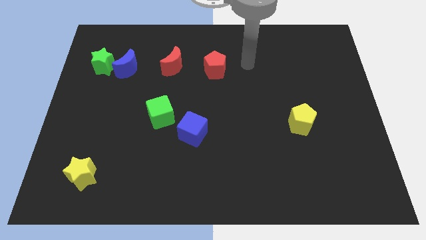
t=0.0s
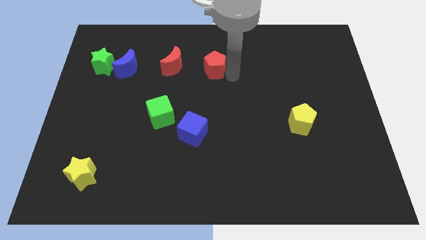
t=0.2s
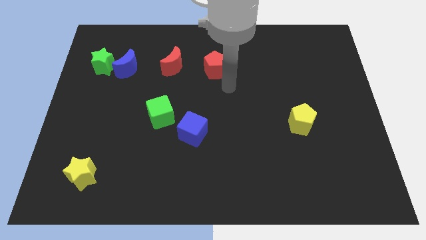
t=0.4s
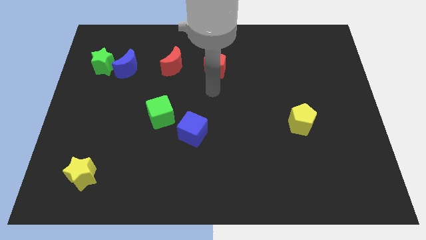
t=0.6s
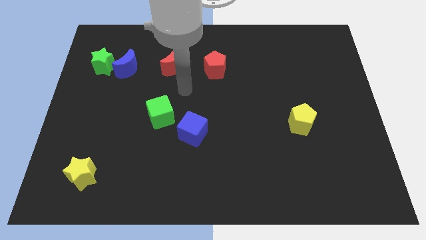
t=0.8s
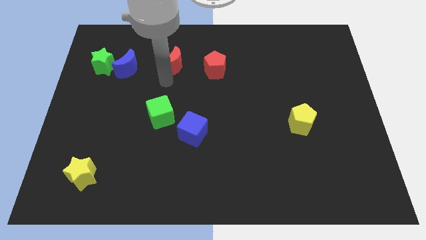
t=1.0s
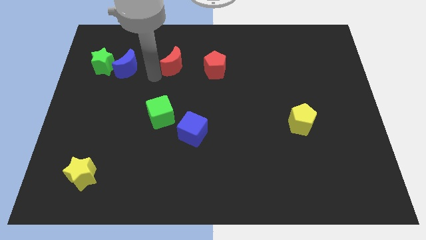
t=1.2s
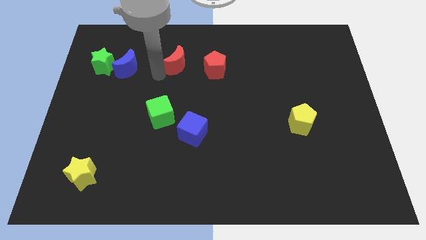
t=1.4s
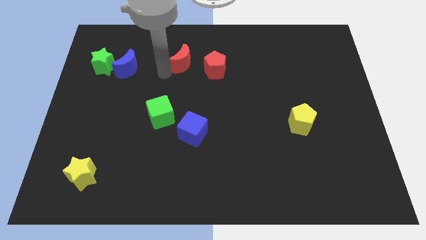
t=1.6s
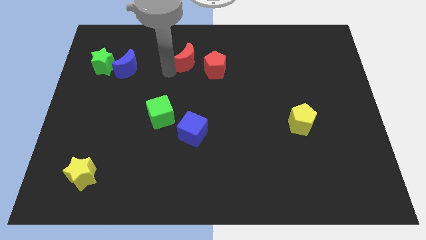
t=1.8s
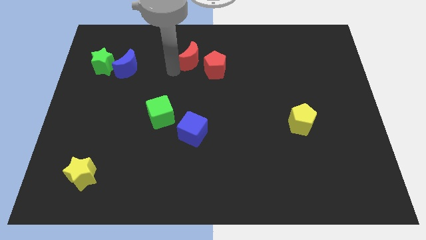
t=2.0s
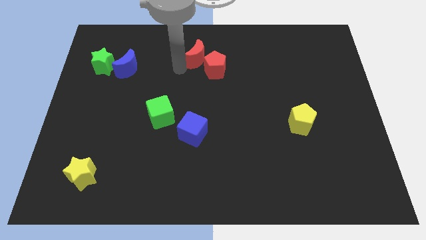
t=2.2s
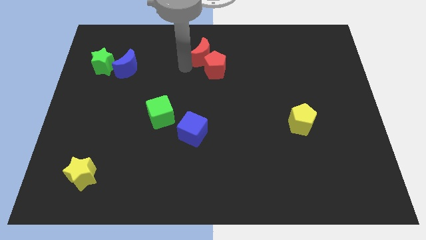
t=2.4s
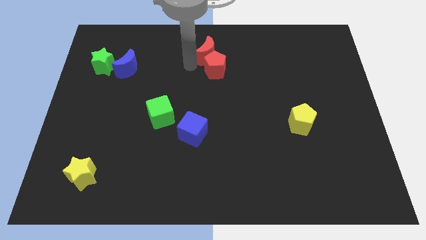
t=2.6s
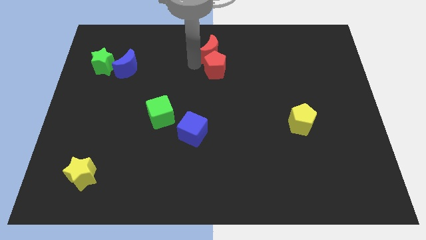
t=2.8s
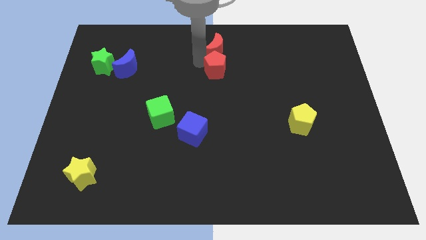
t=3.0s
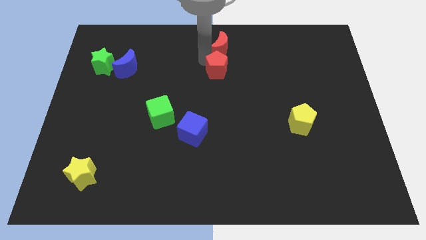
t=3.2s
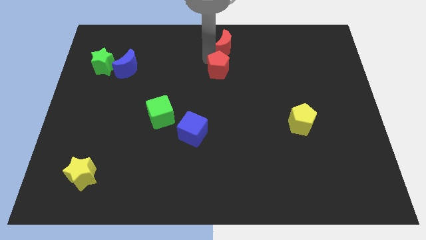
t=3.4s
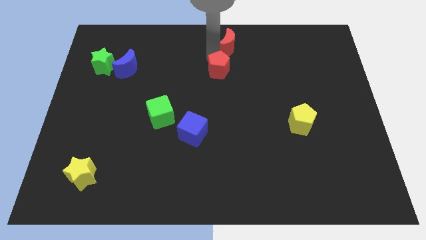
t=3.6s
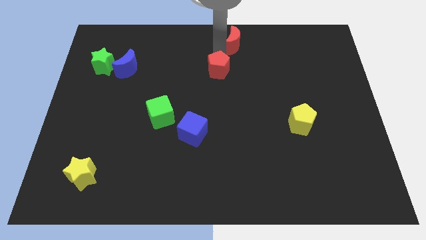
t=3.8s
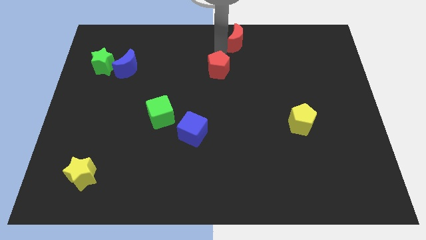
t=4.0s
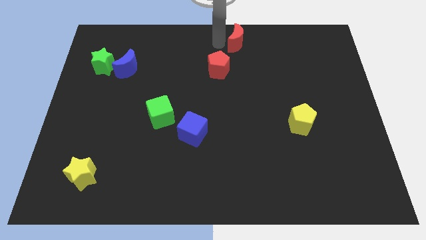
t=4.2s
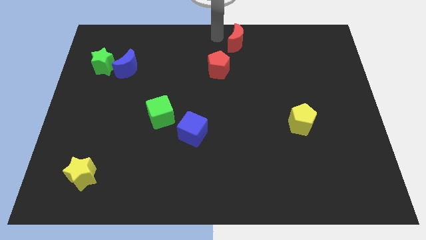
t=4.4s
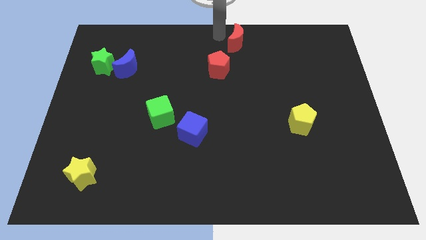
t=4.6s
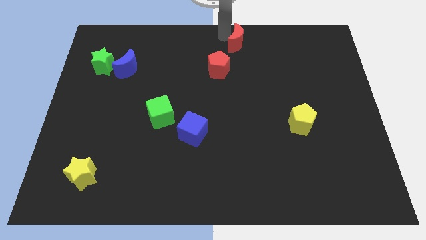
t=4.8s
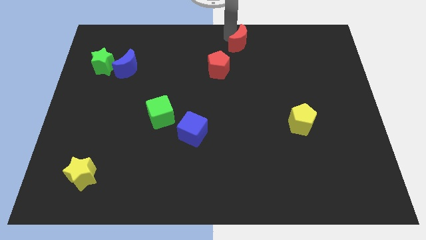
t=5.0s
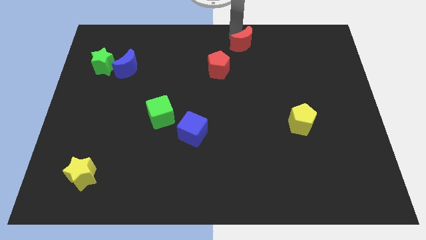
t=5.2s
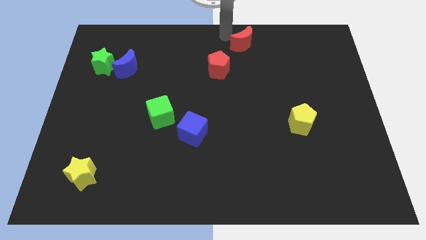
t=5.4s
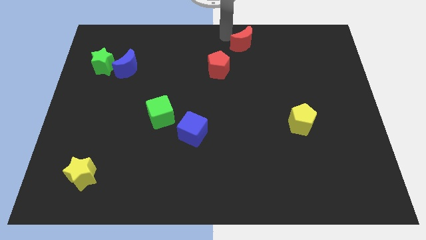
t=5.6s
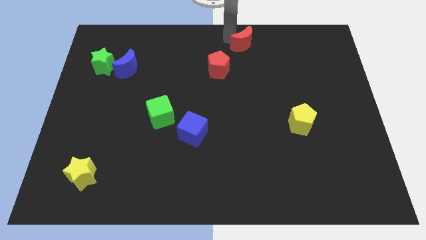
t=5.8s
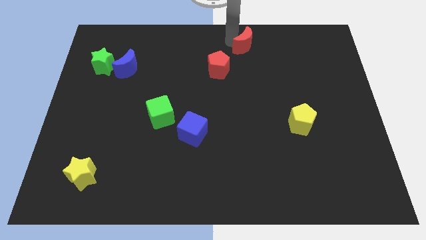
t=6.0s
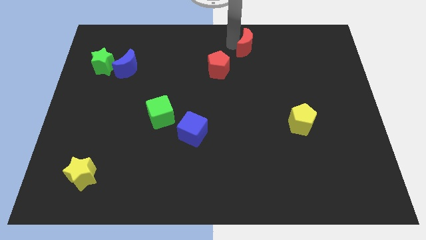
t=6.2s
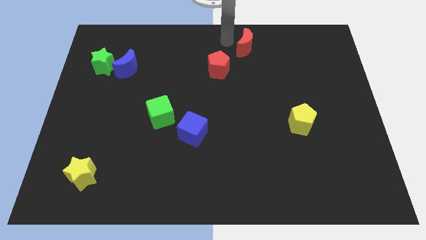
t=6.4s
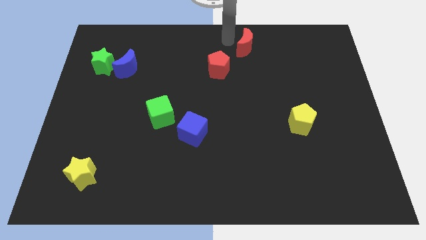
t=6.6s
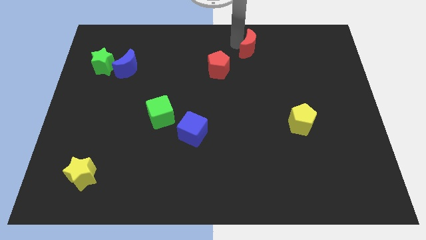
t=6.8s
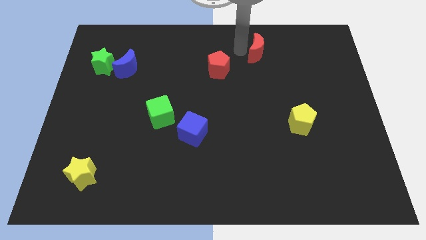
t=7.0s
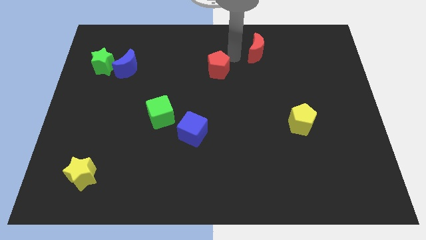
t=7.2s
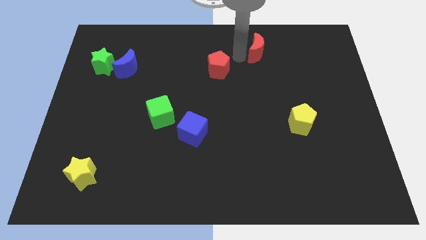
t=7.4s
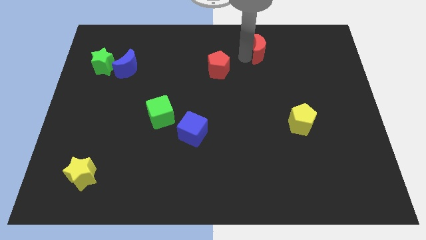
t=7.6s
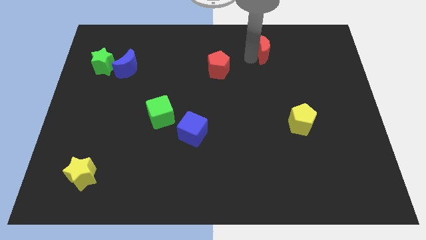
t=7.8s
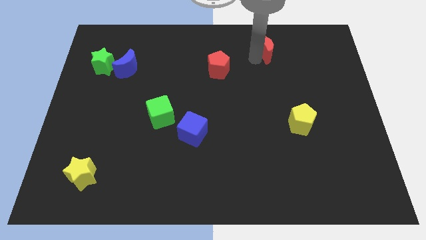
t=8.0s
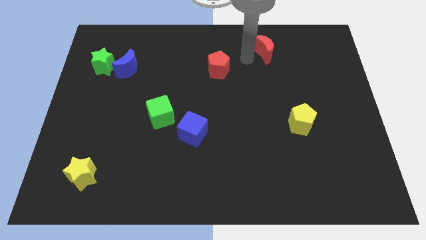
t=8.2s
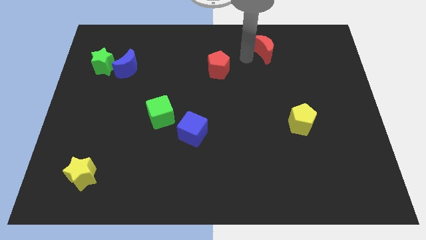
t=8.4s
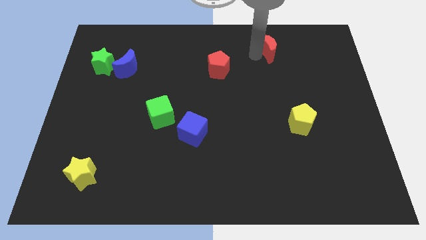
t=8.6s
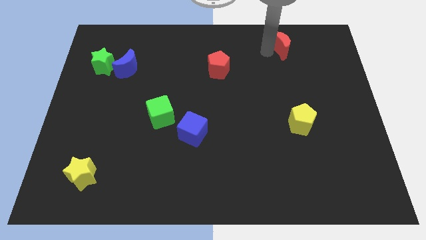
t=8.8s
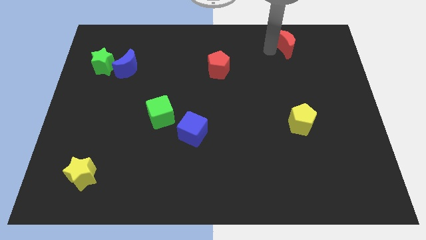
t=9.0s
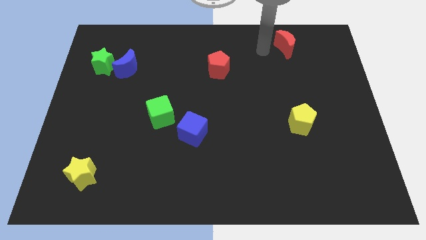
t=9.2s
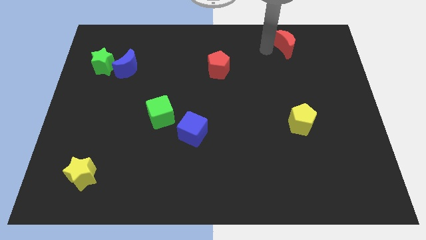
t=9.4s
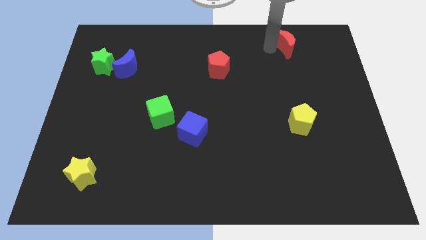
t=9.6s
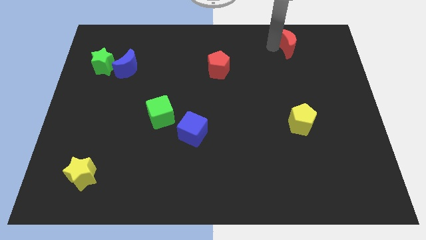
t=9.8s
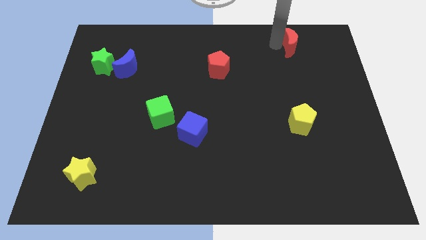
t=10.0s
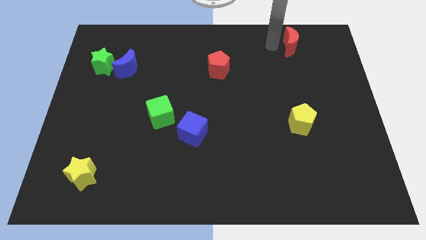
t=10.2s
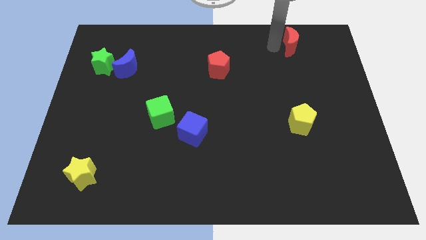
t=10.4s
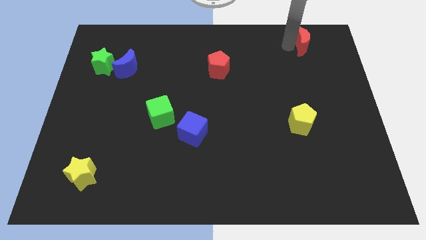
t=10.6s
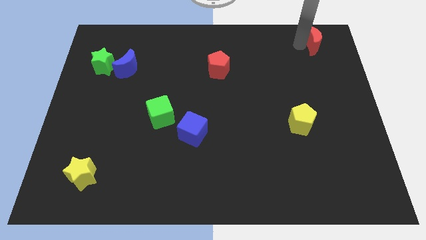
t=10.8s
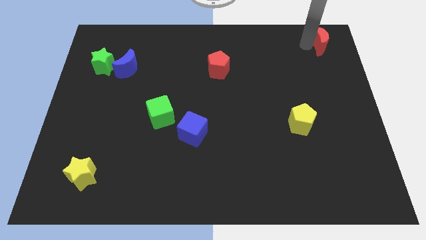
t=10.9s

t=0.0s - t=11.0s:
slide the red moon to the upper right corner

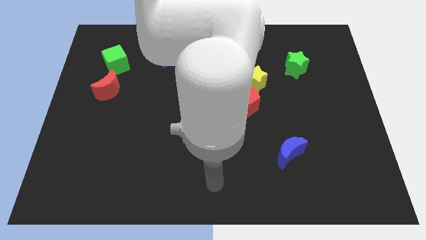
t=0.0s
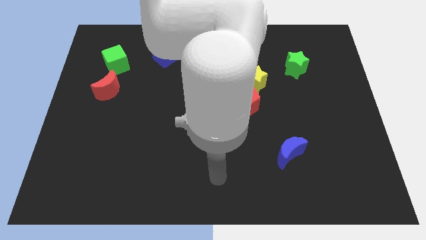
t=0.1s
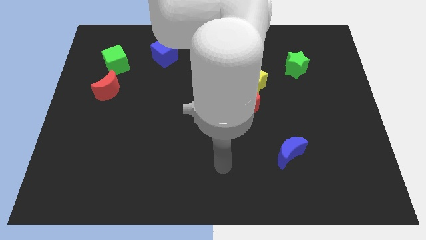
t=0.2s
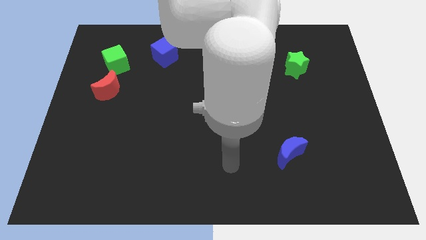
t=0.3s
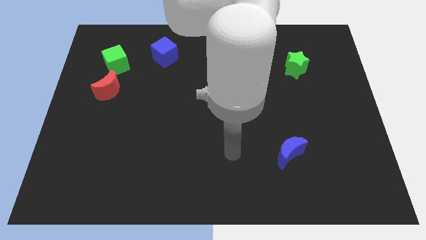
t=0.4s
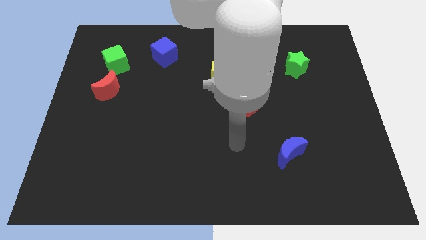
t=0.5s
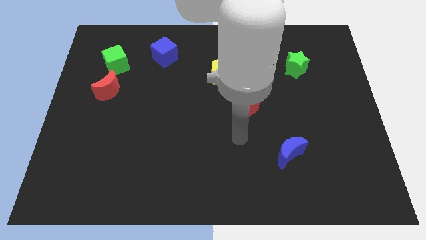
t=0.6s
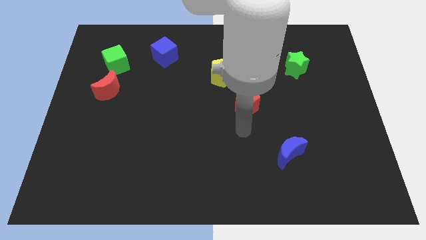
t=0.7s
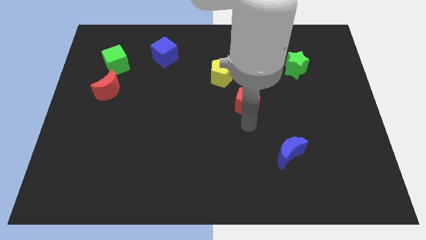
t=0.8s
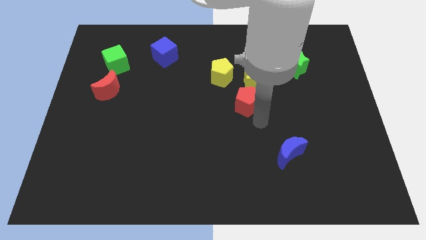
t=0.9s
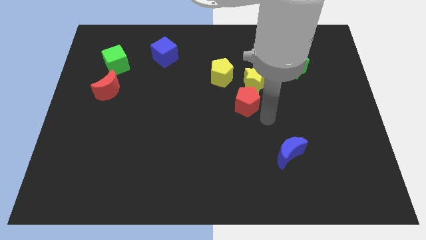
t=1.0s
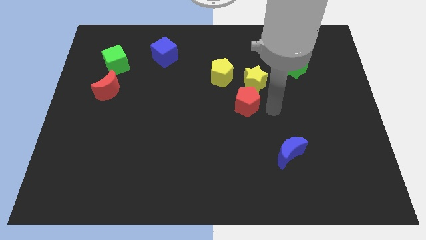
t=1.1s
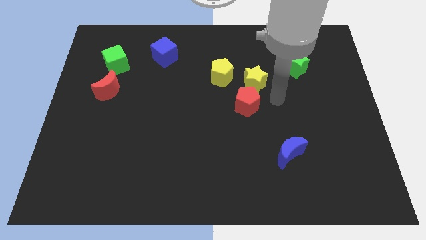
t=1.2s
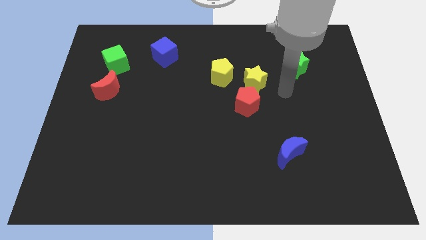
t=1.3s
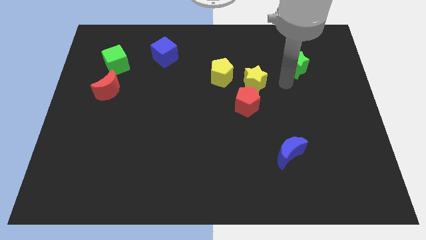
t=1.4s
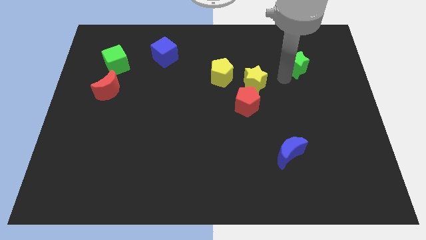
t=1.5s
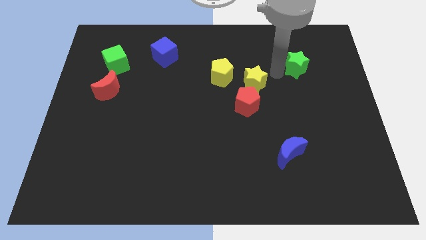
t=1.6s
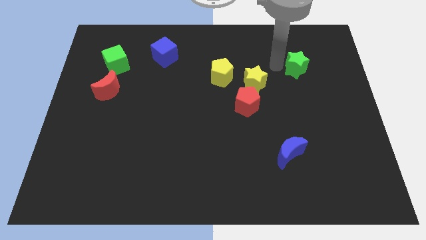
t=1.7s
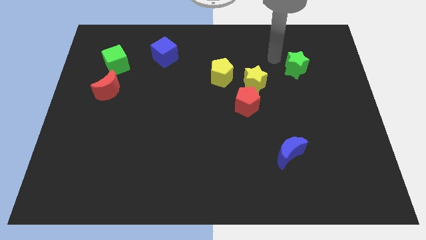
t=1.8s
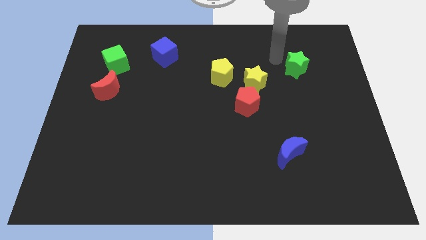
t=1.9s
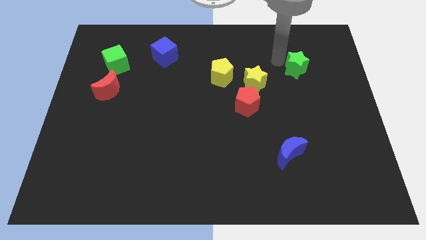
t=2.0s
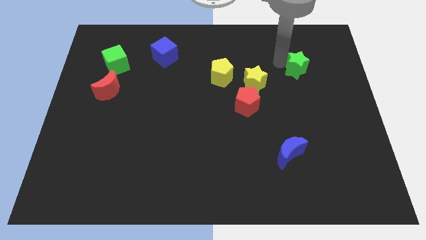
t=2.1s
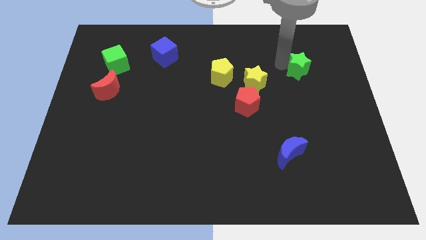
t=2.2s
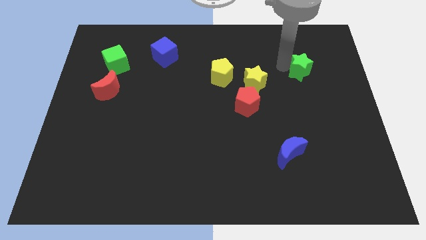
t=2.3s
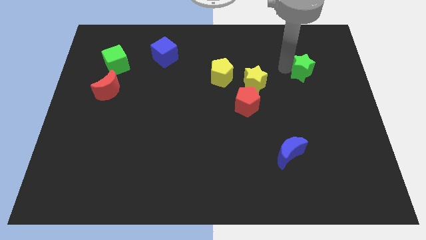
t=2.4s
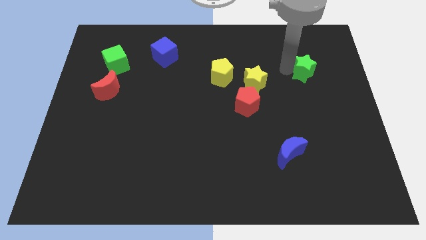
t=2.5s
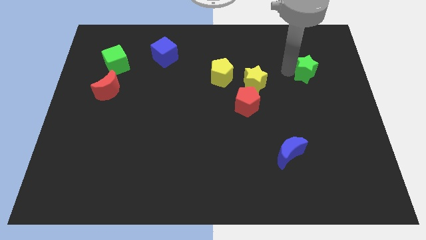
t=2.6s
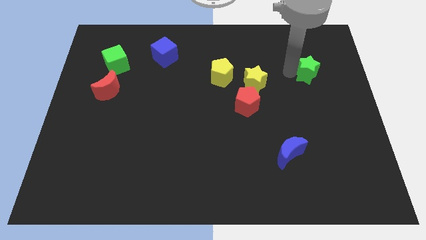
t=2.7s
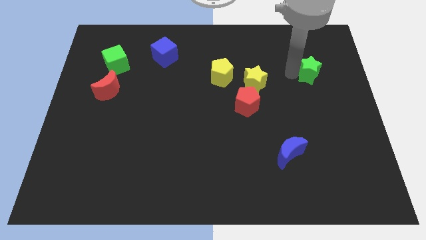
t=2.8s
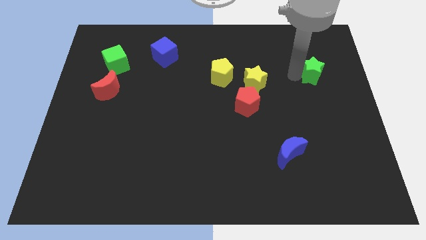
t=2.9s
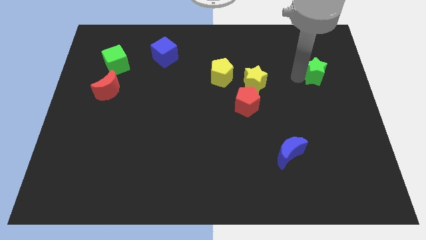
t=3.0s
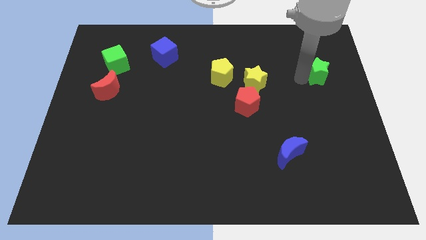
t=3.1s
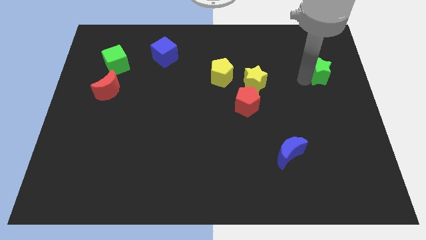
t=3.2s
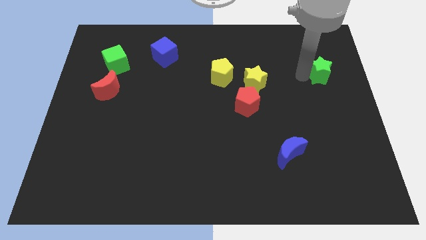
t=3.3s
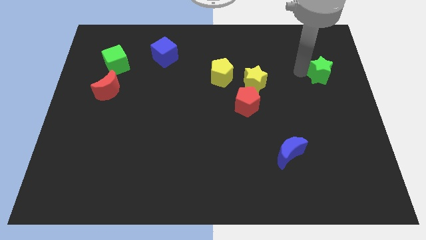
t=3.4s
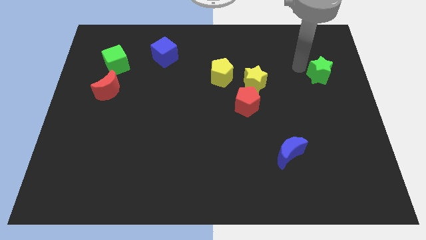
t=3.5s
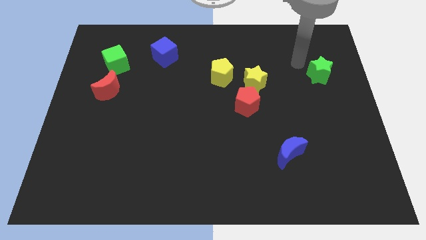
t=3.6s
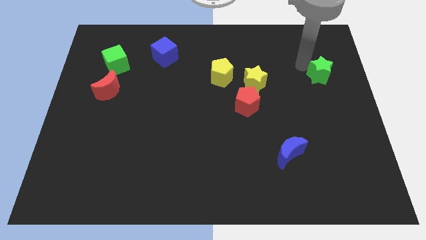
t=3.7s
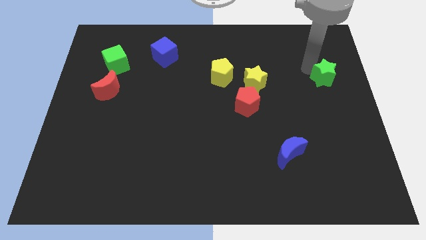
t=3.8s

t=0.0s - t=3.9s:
push the green star to the right side
